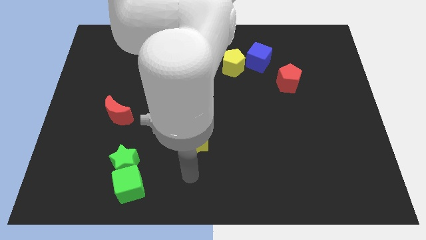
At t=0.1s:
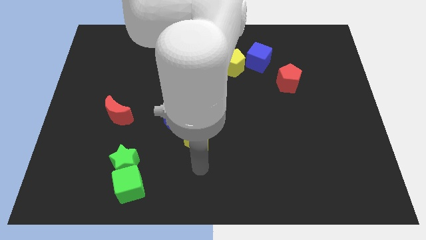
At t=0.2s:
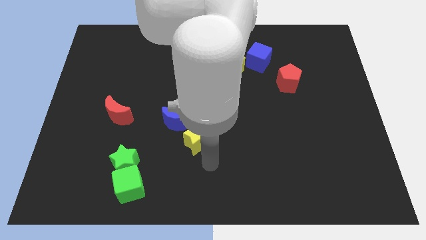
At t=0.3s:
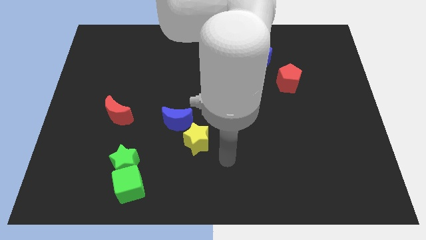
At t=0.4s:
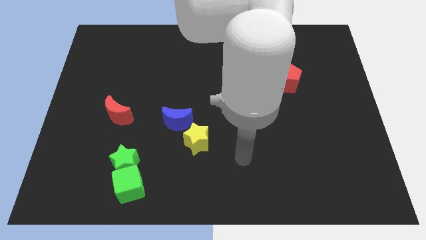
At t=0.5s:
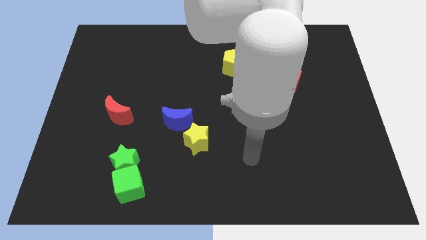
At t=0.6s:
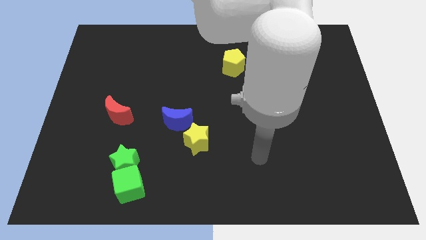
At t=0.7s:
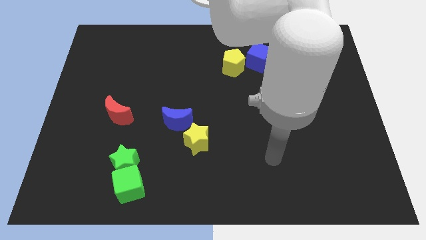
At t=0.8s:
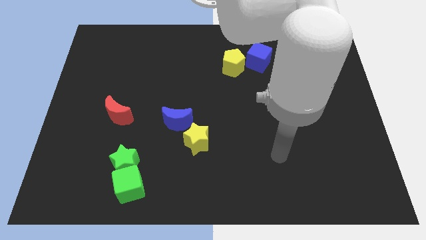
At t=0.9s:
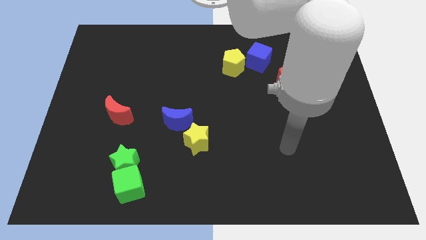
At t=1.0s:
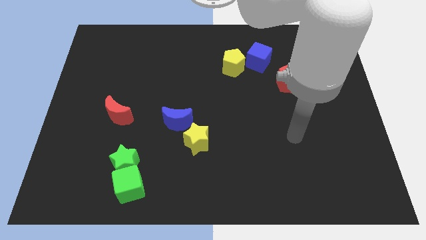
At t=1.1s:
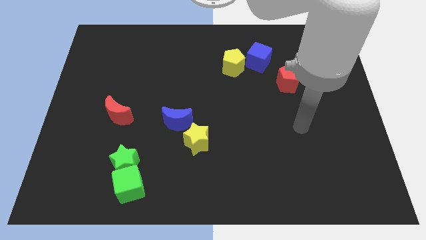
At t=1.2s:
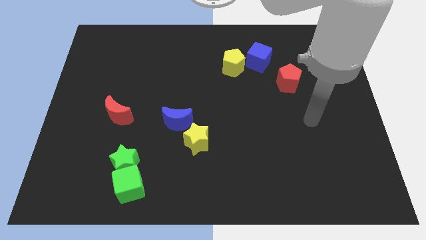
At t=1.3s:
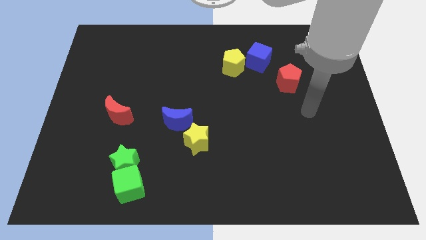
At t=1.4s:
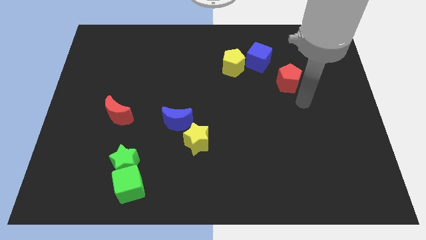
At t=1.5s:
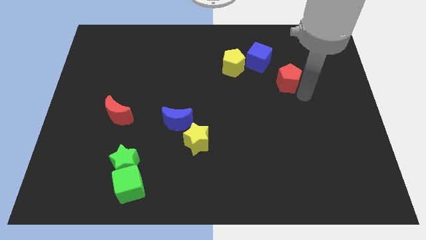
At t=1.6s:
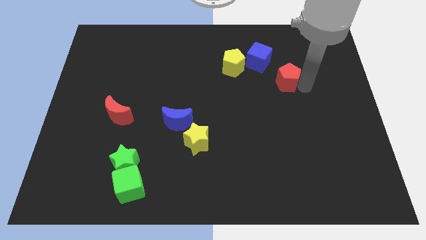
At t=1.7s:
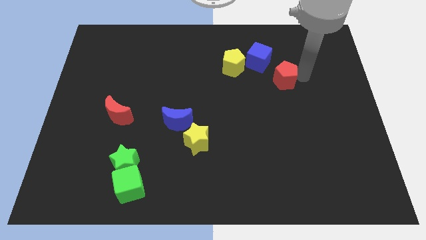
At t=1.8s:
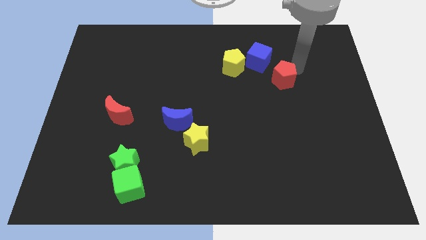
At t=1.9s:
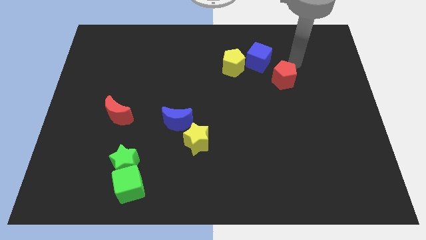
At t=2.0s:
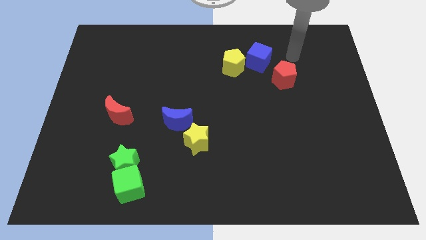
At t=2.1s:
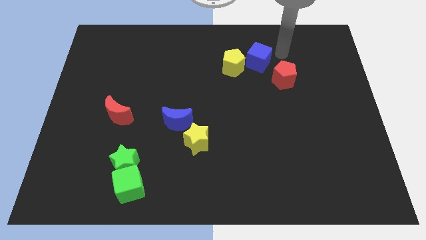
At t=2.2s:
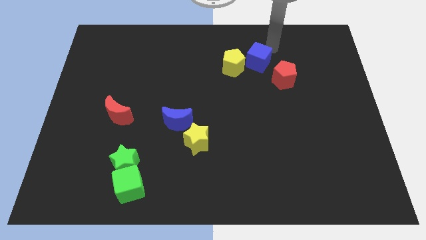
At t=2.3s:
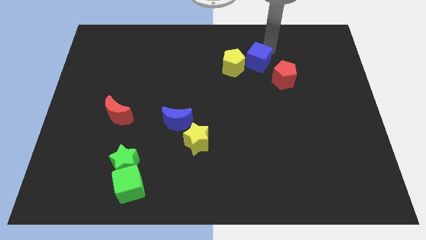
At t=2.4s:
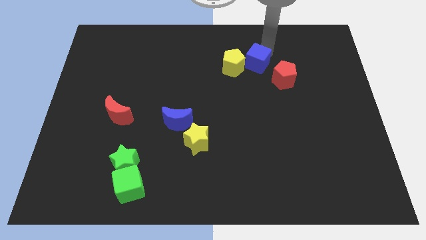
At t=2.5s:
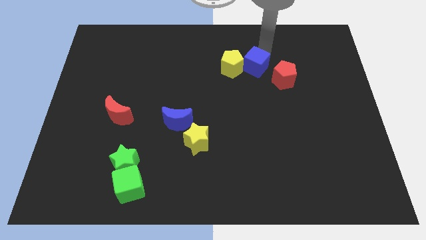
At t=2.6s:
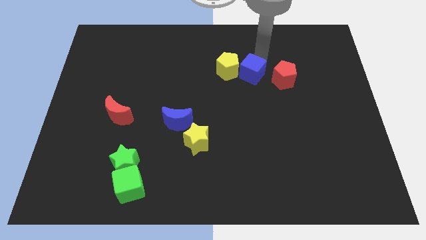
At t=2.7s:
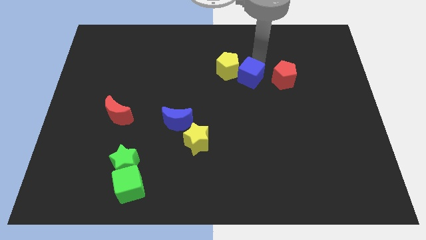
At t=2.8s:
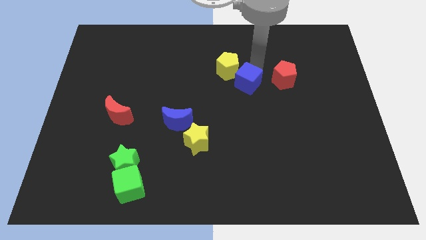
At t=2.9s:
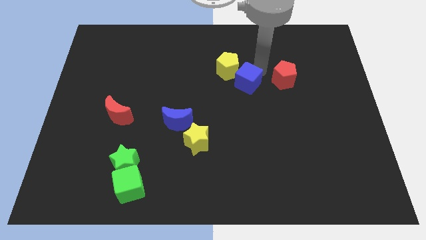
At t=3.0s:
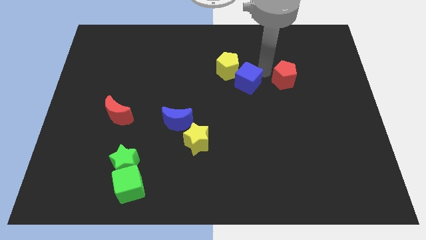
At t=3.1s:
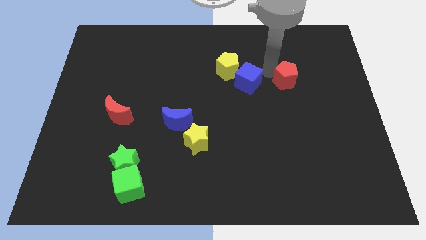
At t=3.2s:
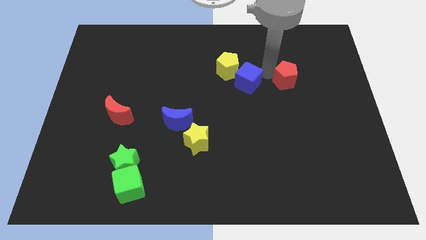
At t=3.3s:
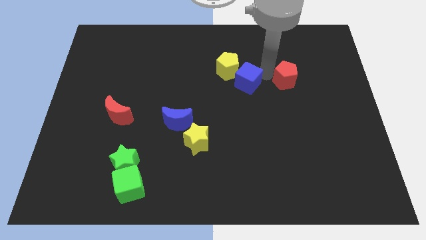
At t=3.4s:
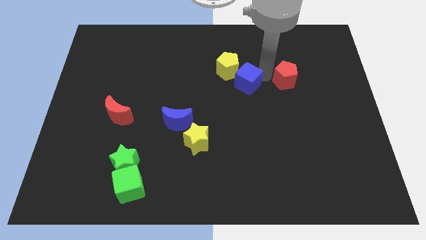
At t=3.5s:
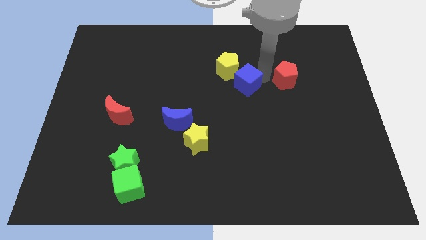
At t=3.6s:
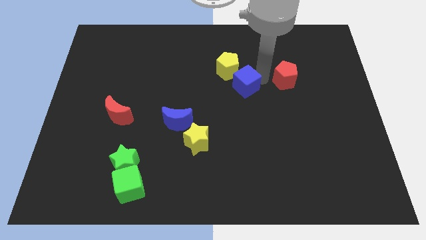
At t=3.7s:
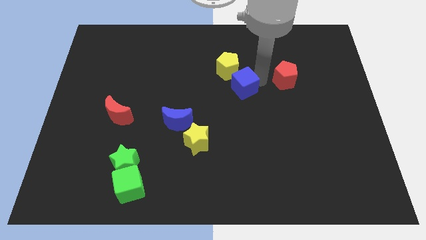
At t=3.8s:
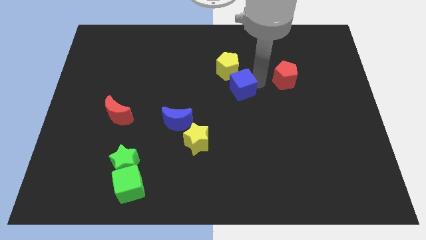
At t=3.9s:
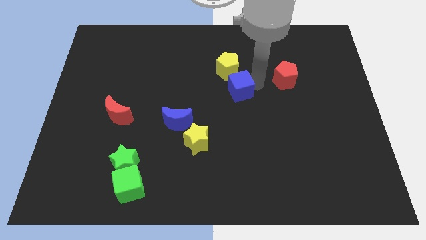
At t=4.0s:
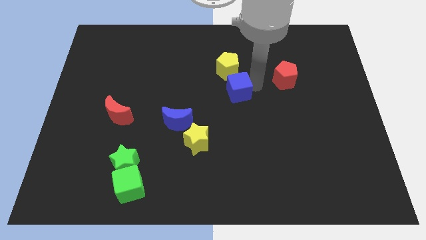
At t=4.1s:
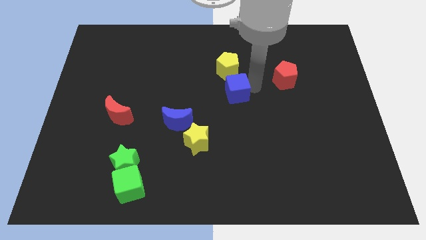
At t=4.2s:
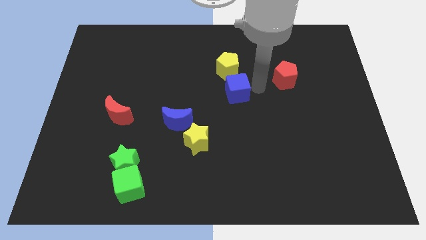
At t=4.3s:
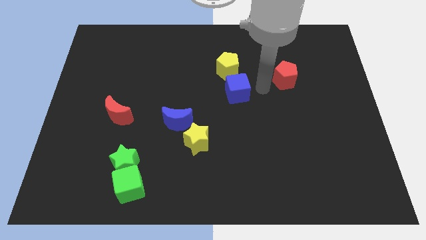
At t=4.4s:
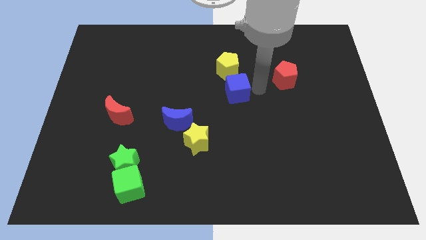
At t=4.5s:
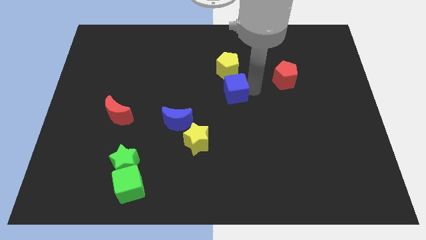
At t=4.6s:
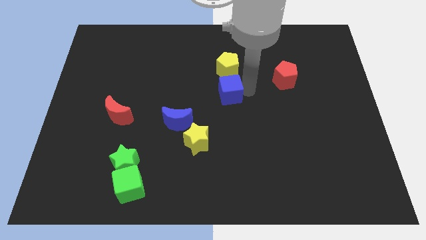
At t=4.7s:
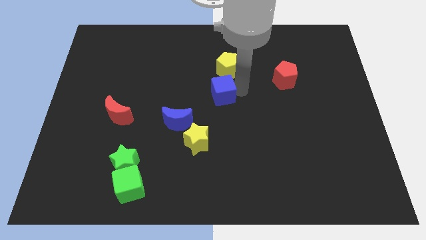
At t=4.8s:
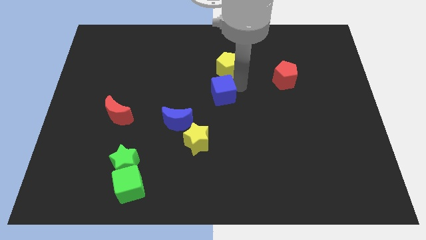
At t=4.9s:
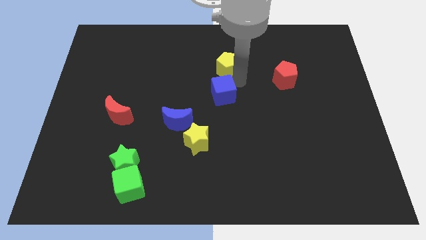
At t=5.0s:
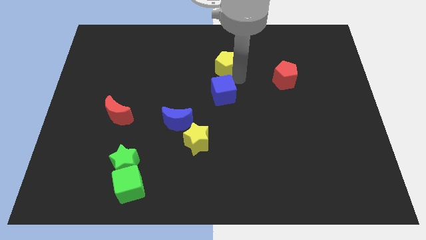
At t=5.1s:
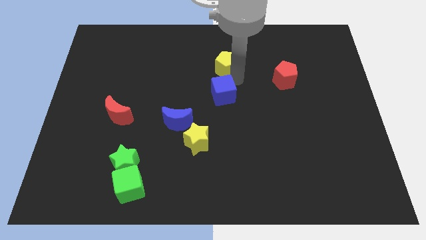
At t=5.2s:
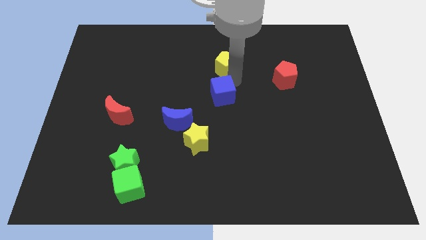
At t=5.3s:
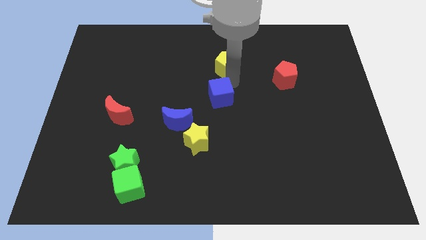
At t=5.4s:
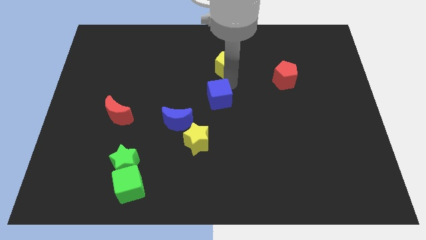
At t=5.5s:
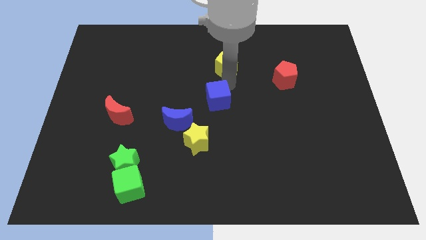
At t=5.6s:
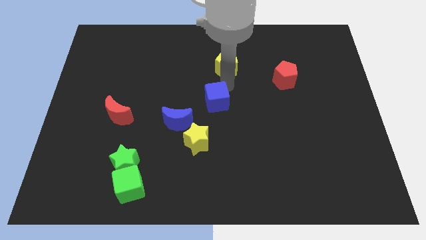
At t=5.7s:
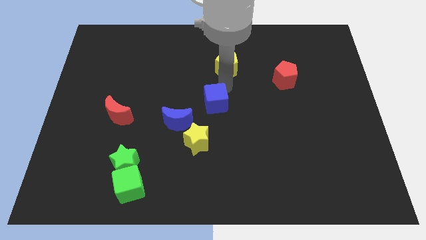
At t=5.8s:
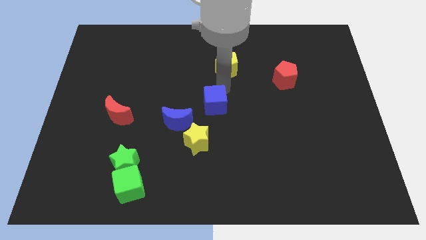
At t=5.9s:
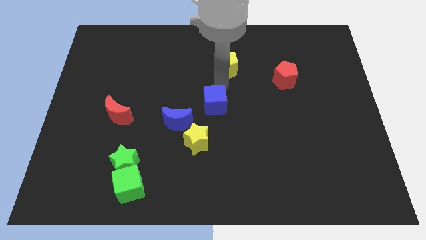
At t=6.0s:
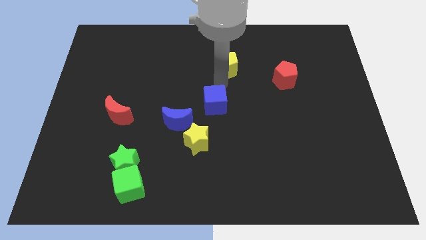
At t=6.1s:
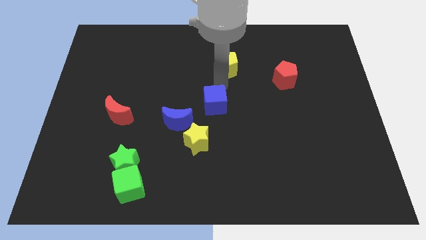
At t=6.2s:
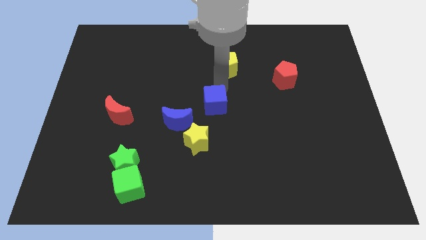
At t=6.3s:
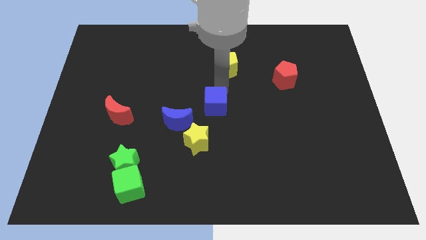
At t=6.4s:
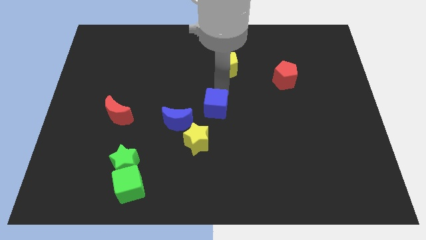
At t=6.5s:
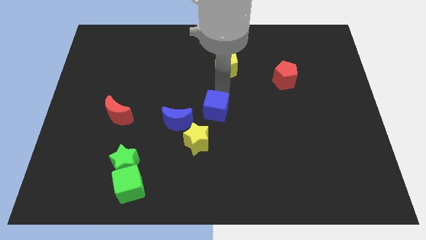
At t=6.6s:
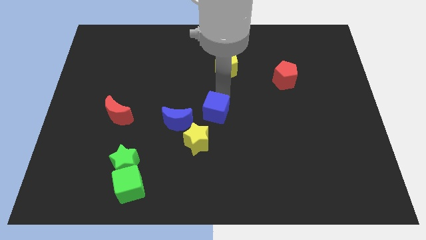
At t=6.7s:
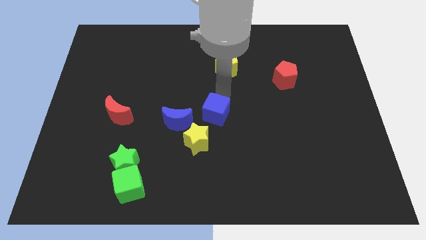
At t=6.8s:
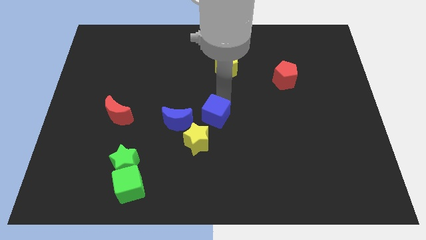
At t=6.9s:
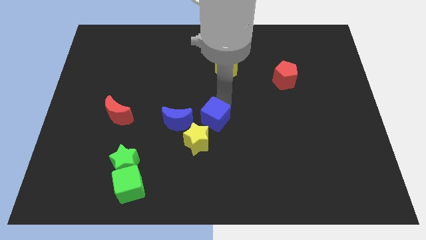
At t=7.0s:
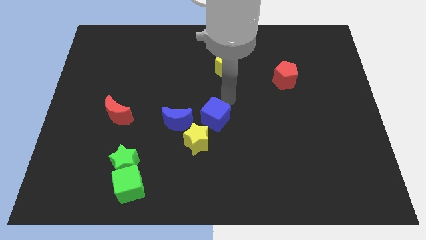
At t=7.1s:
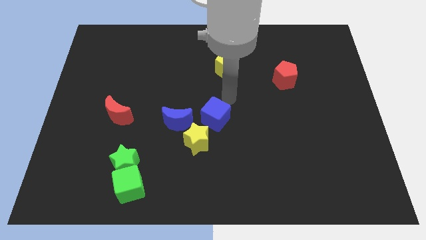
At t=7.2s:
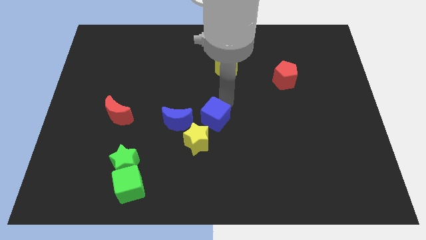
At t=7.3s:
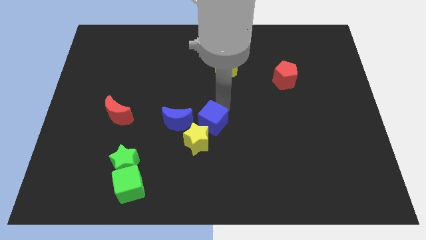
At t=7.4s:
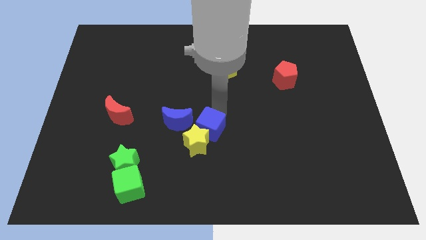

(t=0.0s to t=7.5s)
move the blue cube close to the yellow star
